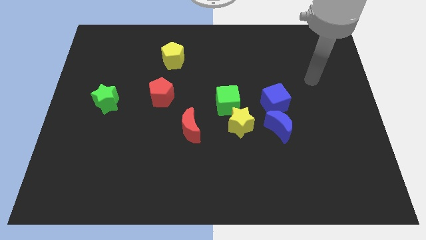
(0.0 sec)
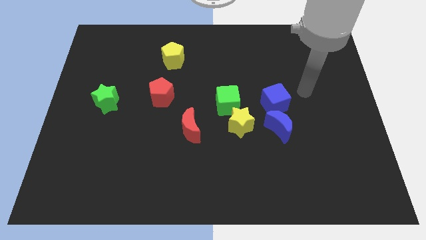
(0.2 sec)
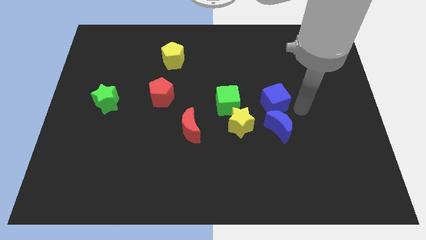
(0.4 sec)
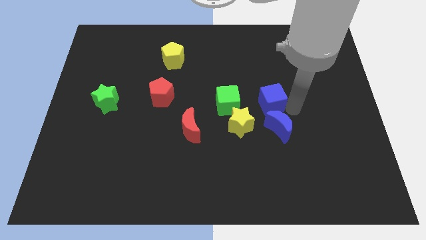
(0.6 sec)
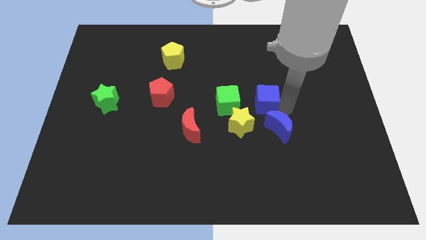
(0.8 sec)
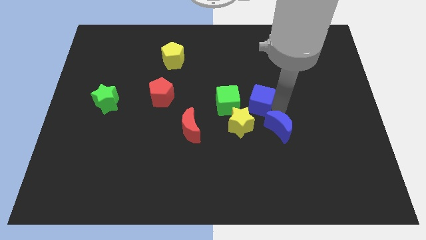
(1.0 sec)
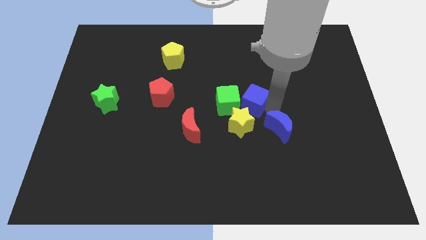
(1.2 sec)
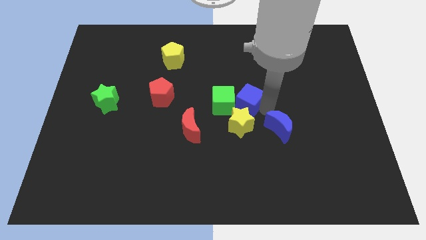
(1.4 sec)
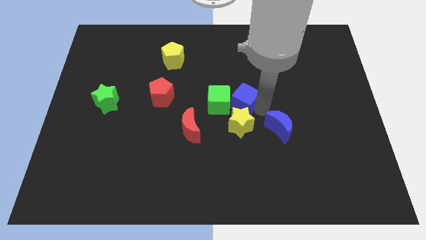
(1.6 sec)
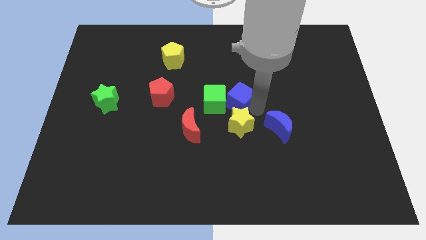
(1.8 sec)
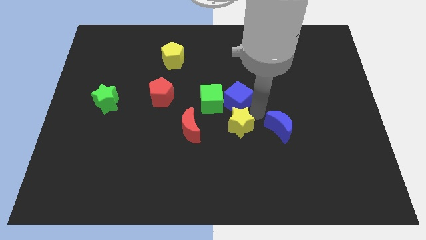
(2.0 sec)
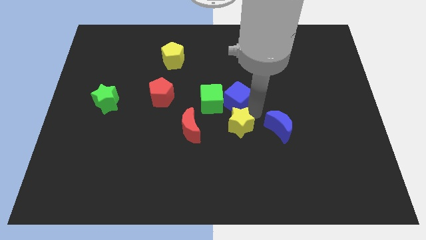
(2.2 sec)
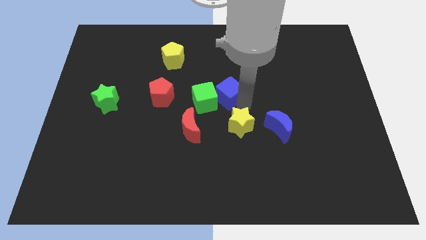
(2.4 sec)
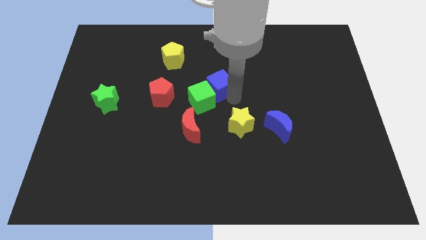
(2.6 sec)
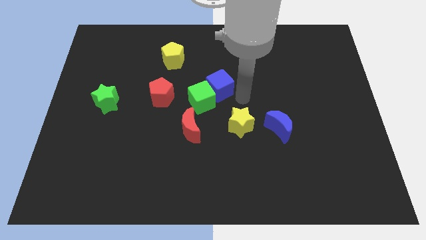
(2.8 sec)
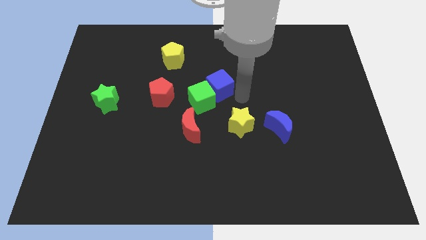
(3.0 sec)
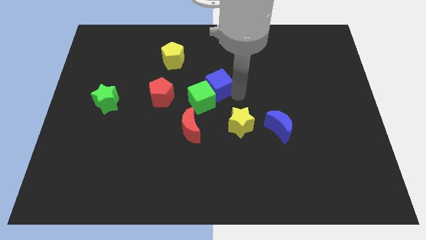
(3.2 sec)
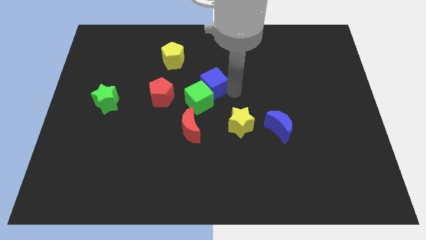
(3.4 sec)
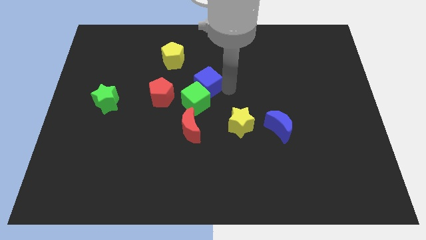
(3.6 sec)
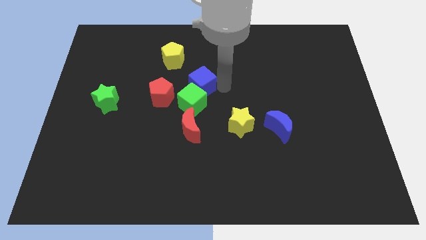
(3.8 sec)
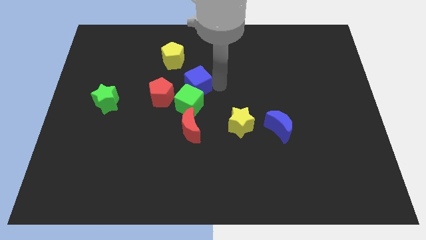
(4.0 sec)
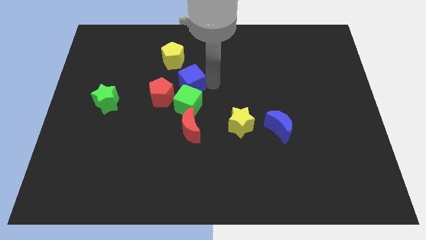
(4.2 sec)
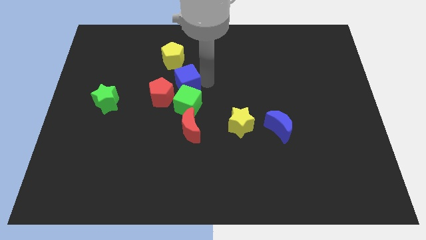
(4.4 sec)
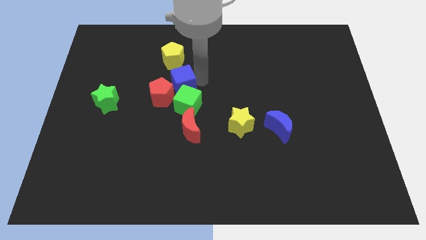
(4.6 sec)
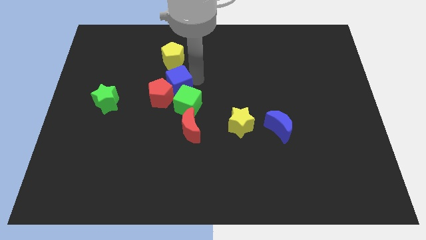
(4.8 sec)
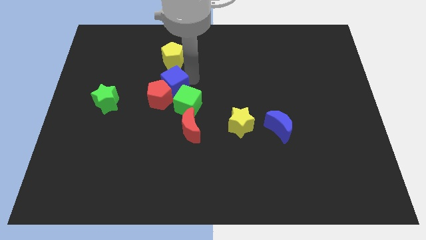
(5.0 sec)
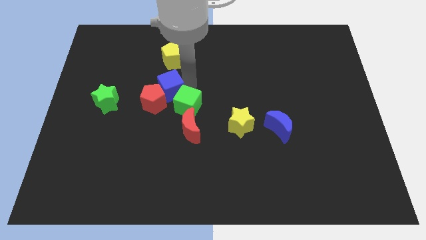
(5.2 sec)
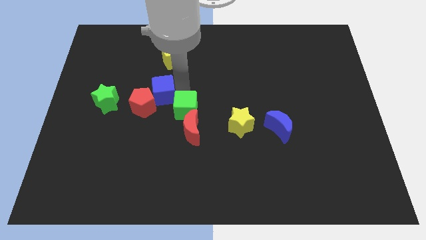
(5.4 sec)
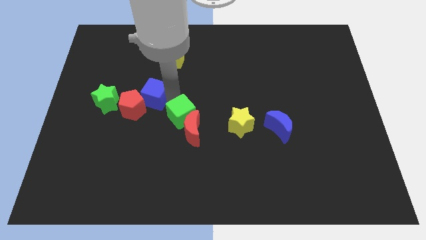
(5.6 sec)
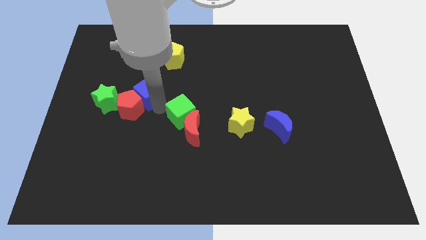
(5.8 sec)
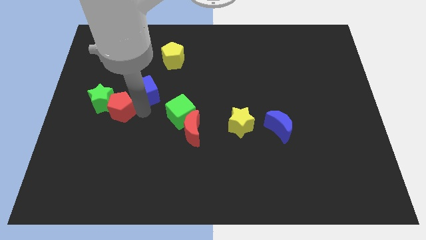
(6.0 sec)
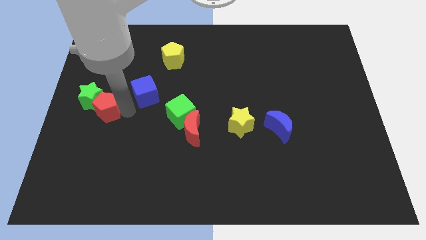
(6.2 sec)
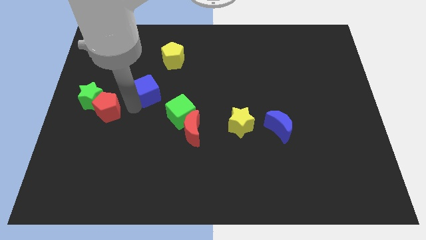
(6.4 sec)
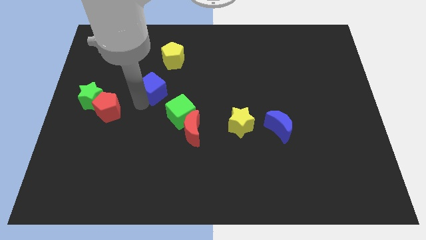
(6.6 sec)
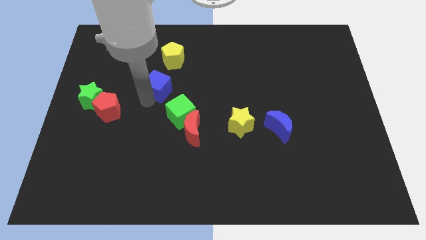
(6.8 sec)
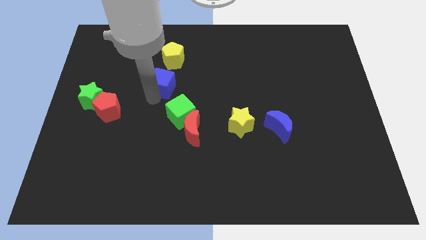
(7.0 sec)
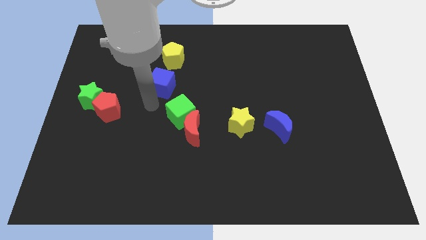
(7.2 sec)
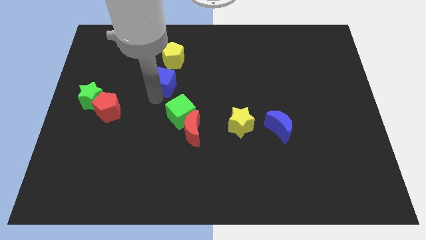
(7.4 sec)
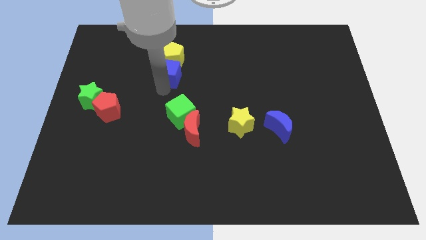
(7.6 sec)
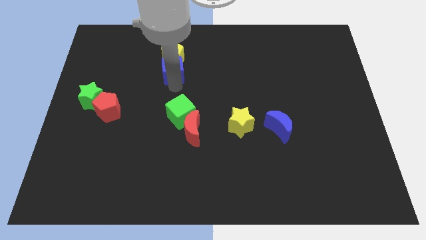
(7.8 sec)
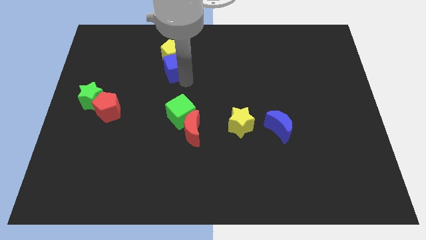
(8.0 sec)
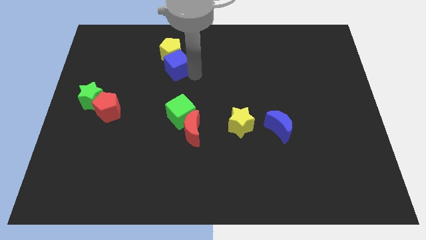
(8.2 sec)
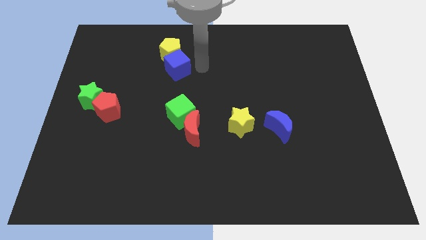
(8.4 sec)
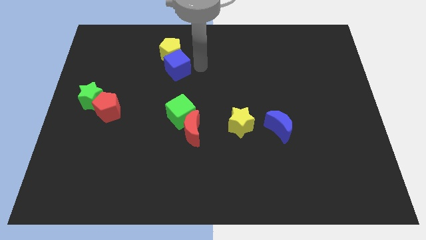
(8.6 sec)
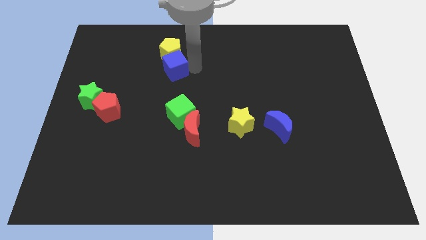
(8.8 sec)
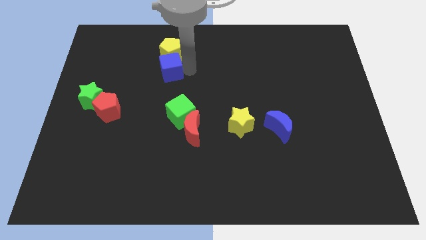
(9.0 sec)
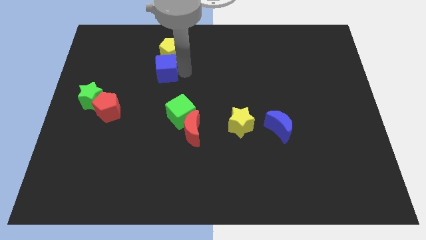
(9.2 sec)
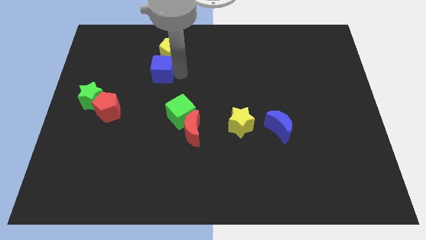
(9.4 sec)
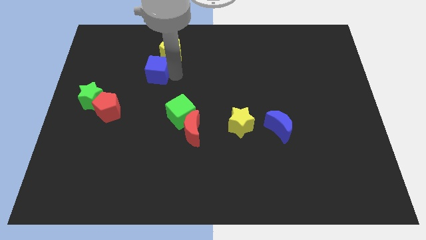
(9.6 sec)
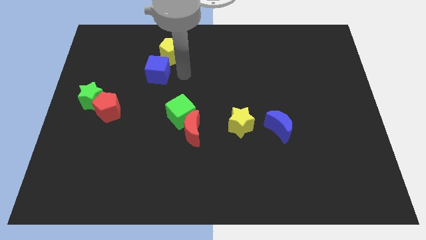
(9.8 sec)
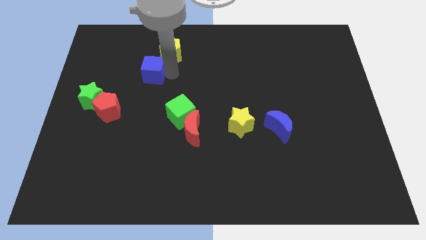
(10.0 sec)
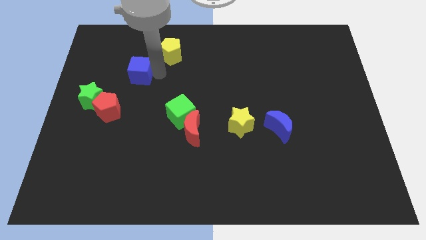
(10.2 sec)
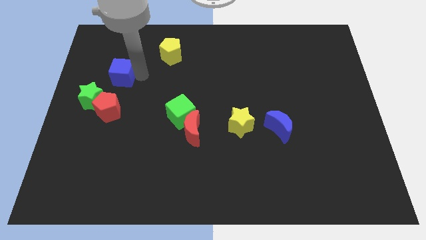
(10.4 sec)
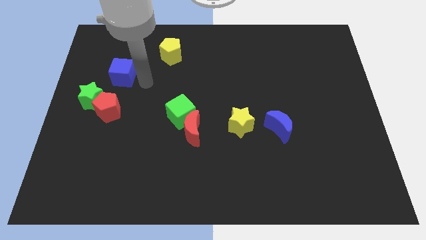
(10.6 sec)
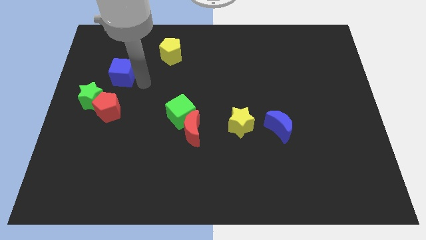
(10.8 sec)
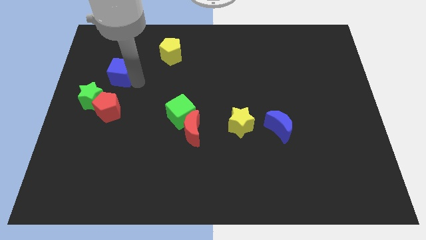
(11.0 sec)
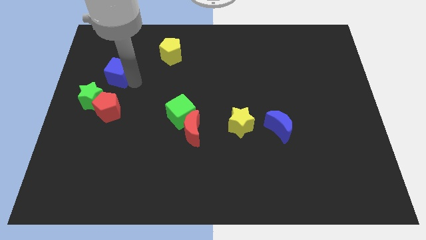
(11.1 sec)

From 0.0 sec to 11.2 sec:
move the blue cube to the top side of the green star

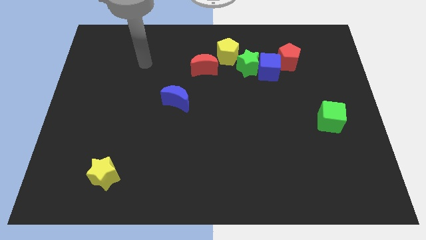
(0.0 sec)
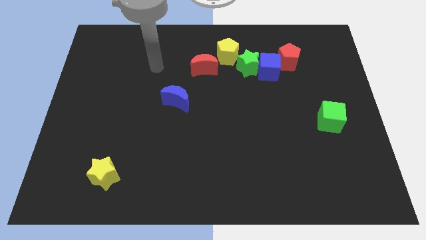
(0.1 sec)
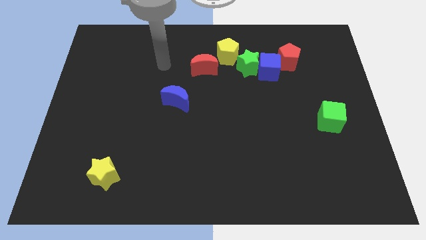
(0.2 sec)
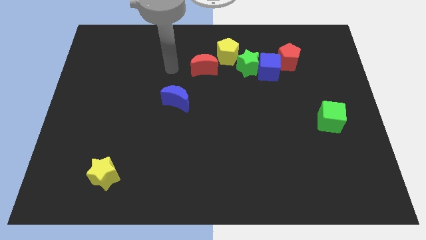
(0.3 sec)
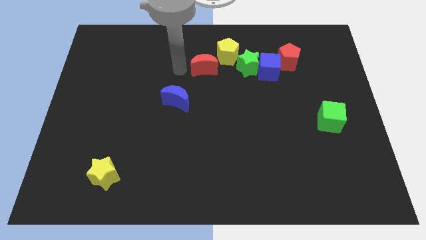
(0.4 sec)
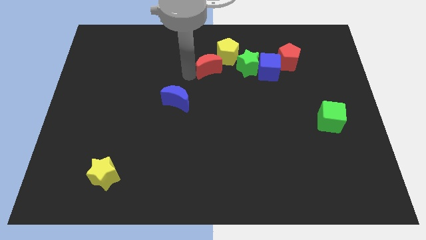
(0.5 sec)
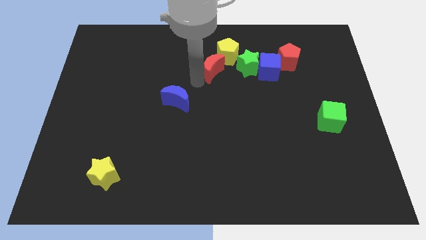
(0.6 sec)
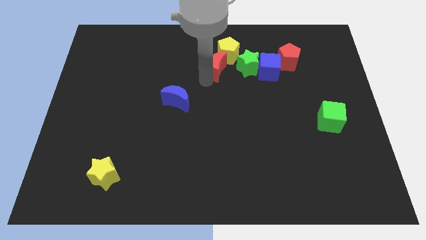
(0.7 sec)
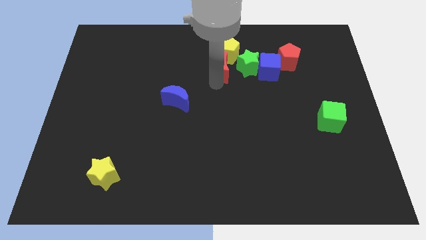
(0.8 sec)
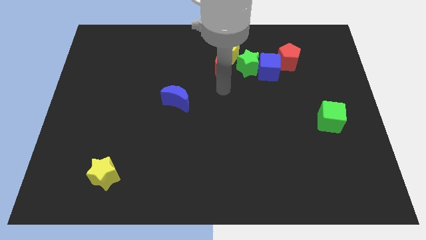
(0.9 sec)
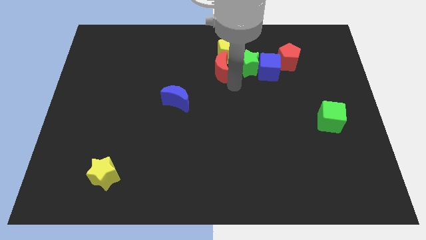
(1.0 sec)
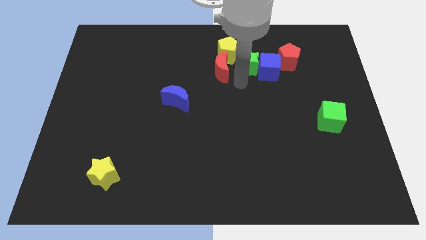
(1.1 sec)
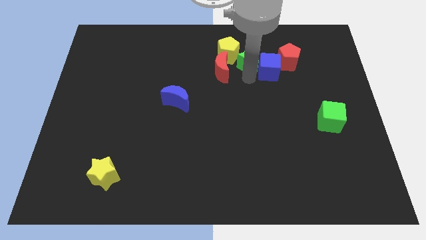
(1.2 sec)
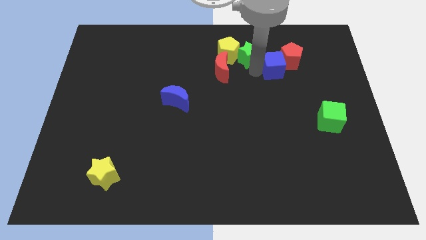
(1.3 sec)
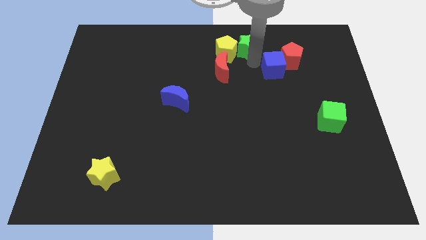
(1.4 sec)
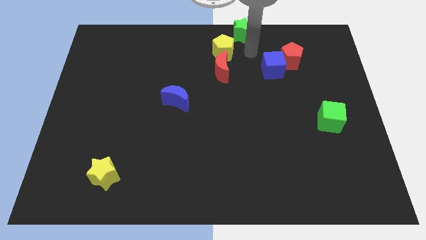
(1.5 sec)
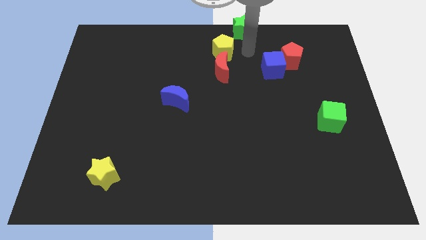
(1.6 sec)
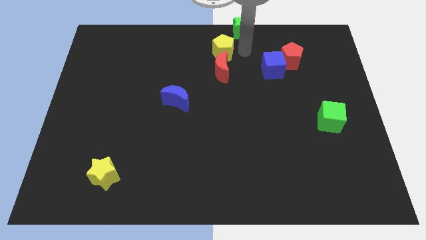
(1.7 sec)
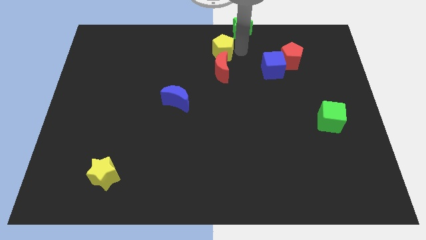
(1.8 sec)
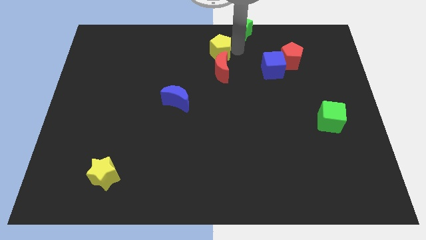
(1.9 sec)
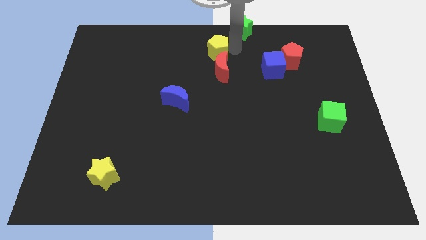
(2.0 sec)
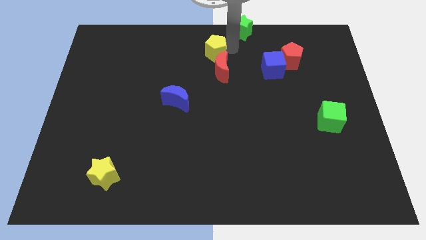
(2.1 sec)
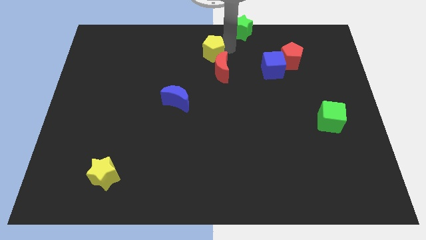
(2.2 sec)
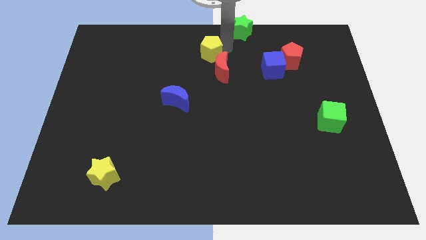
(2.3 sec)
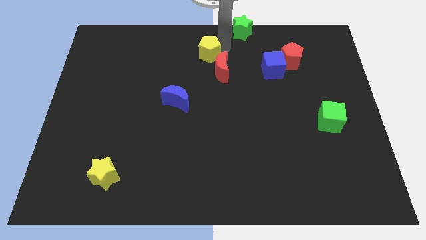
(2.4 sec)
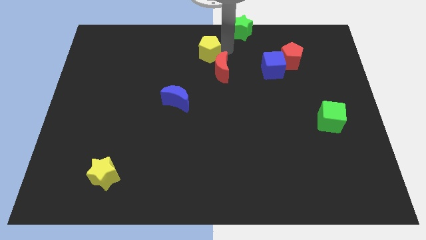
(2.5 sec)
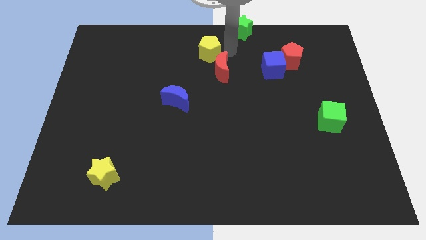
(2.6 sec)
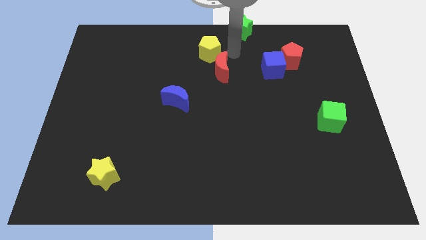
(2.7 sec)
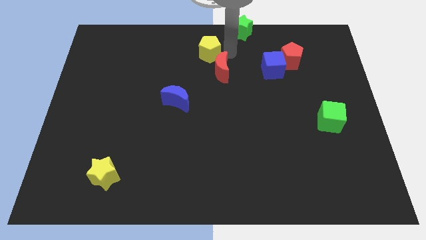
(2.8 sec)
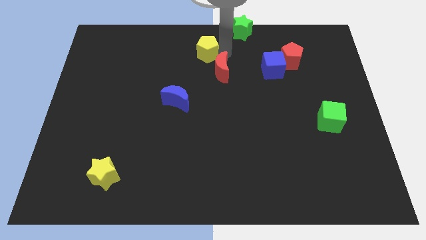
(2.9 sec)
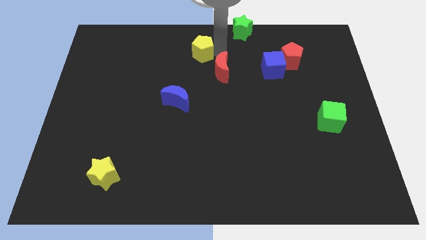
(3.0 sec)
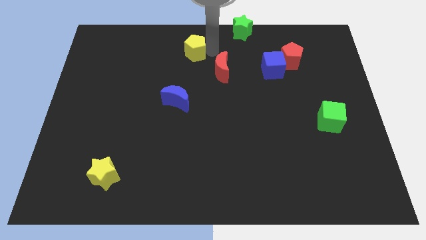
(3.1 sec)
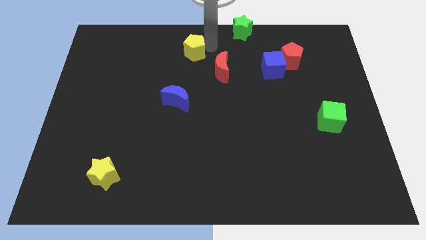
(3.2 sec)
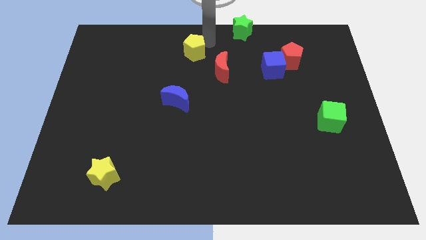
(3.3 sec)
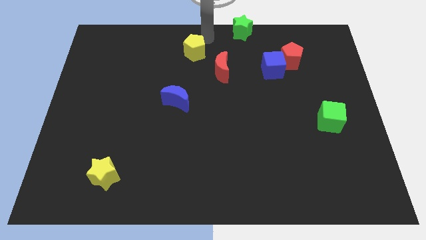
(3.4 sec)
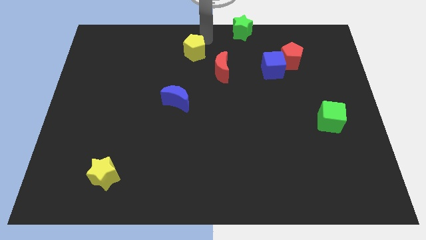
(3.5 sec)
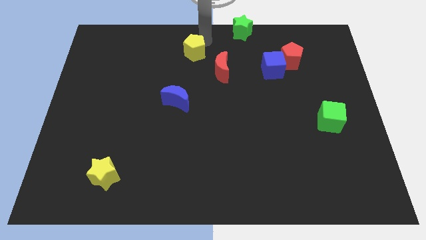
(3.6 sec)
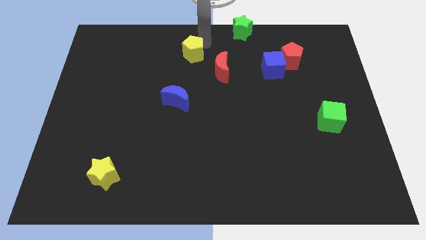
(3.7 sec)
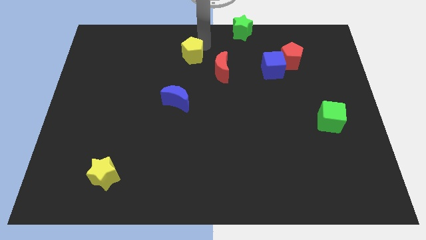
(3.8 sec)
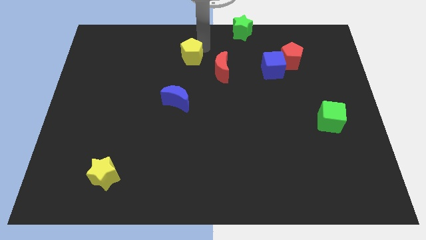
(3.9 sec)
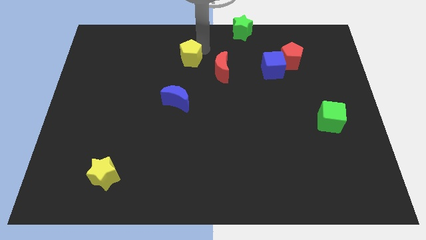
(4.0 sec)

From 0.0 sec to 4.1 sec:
push the yellow pentagon to the top of the blue moon
